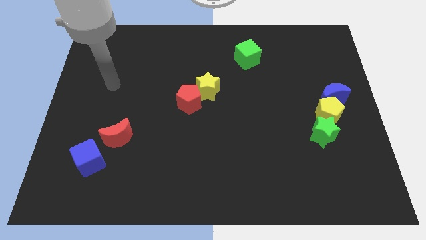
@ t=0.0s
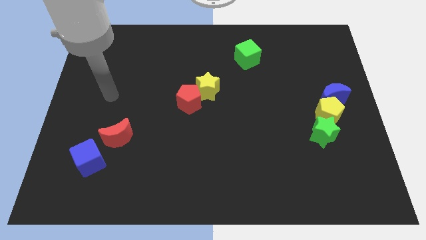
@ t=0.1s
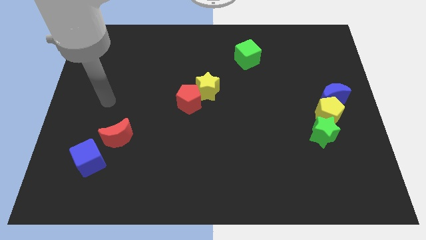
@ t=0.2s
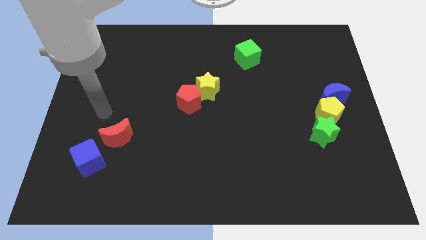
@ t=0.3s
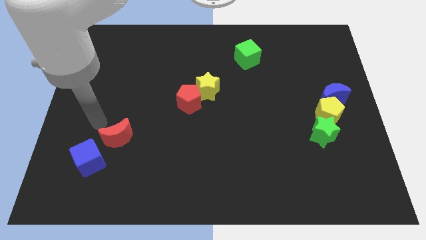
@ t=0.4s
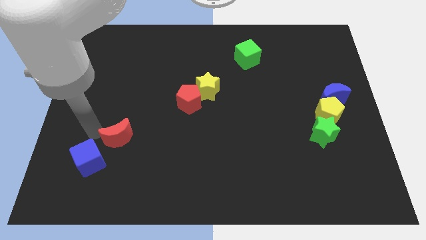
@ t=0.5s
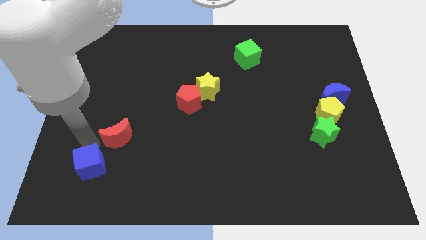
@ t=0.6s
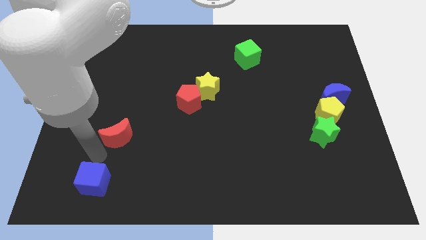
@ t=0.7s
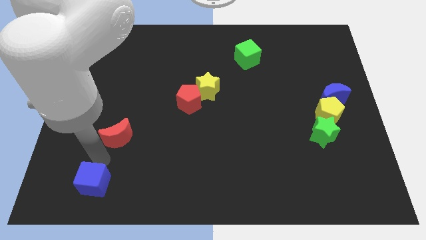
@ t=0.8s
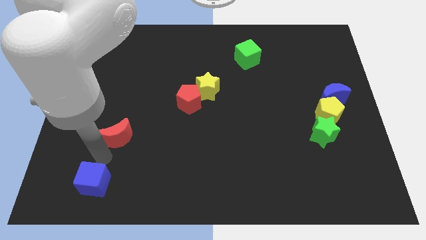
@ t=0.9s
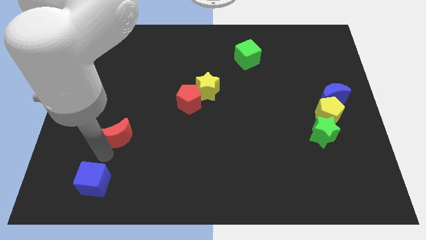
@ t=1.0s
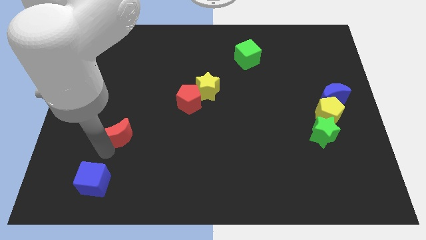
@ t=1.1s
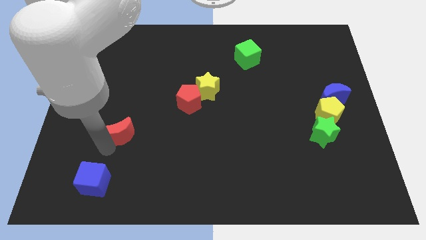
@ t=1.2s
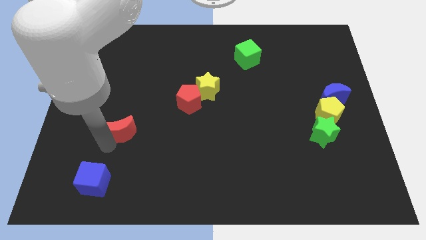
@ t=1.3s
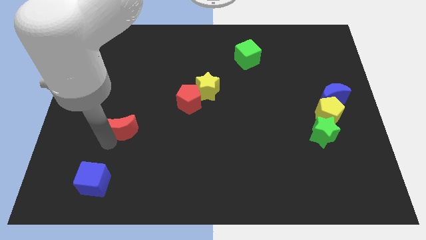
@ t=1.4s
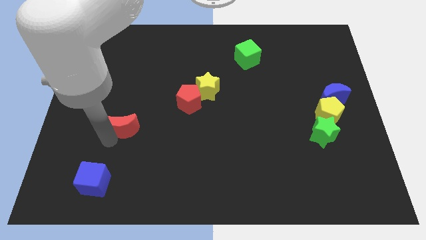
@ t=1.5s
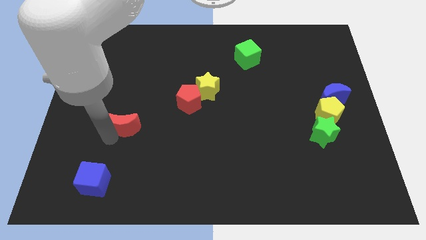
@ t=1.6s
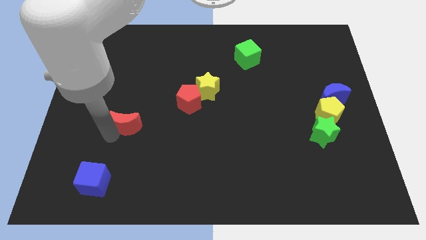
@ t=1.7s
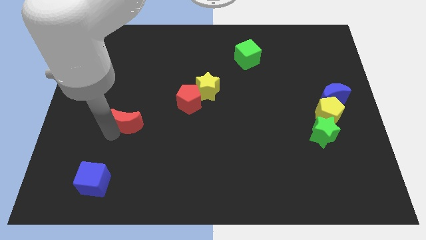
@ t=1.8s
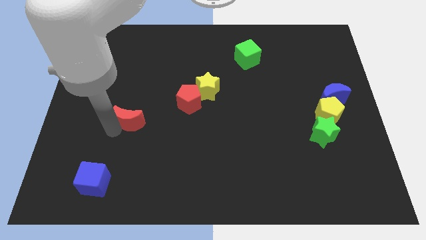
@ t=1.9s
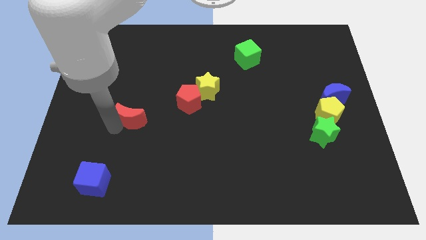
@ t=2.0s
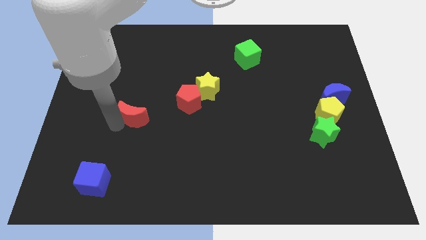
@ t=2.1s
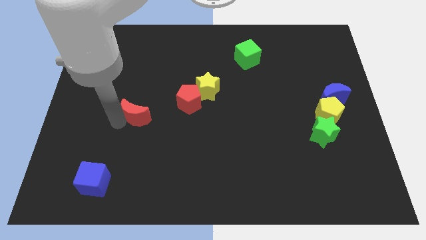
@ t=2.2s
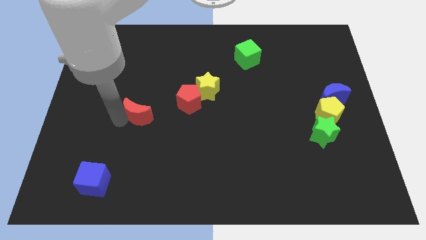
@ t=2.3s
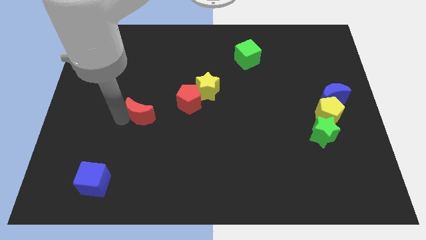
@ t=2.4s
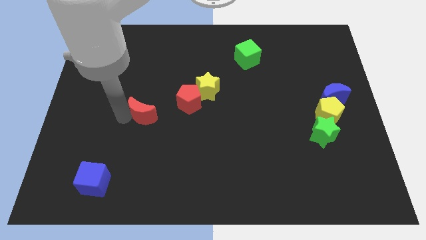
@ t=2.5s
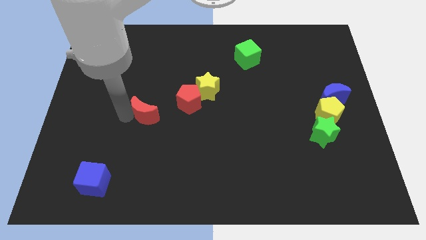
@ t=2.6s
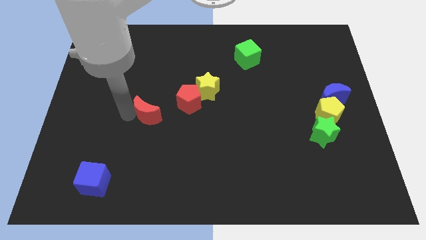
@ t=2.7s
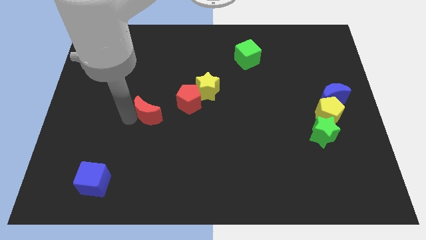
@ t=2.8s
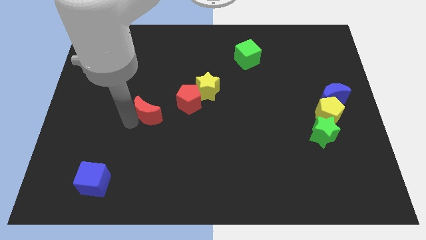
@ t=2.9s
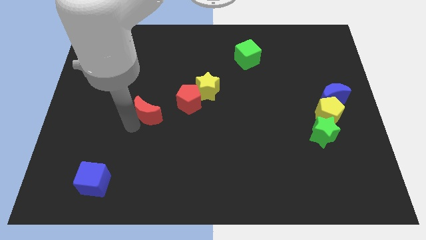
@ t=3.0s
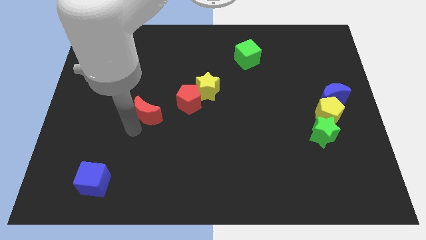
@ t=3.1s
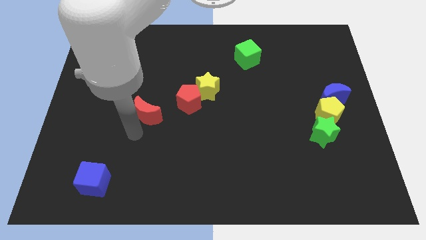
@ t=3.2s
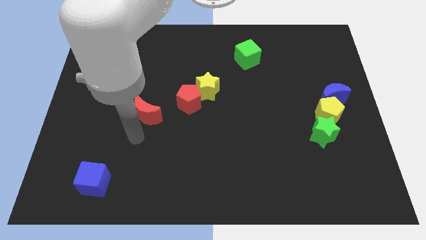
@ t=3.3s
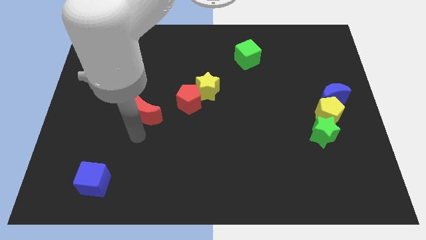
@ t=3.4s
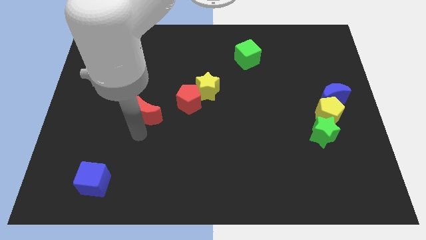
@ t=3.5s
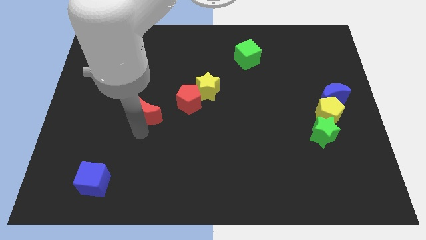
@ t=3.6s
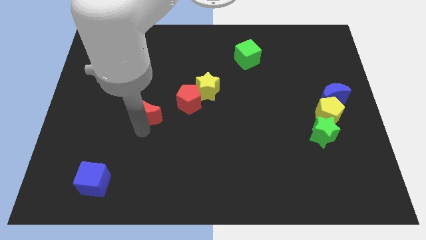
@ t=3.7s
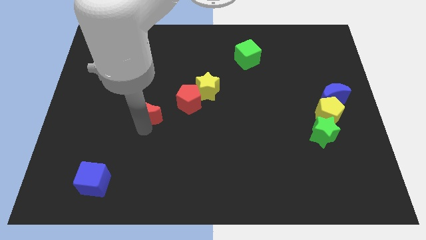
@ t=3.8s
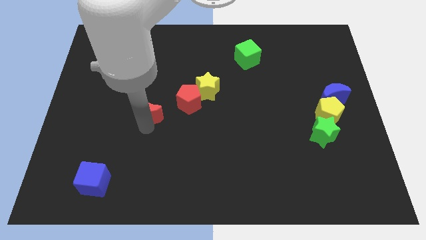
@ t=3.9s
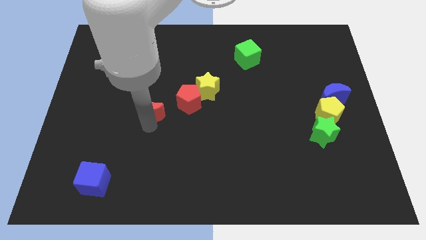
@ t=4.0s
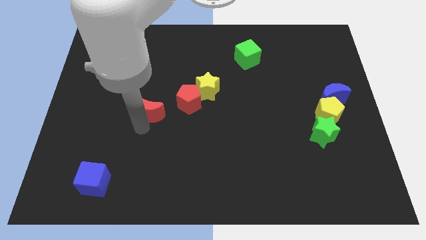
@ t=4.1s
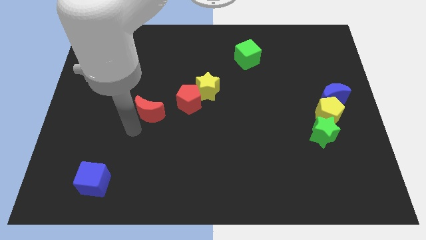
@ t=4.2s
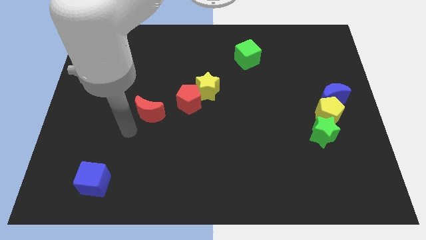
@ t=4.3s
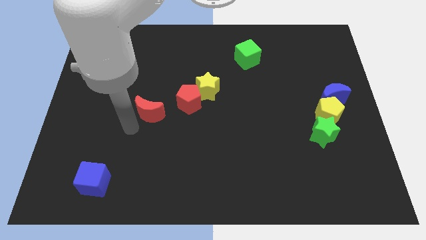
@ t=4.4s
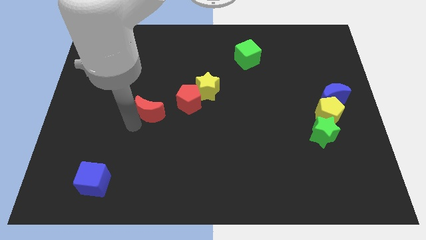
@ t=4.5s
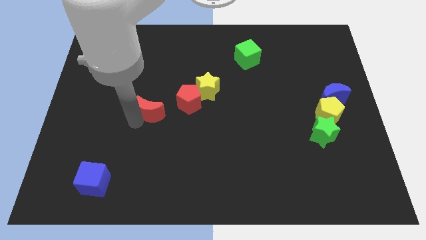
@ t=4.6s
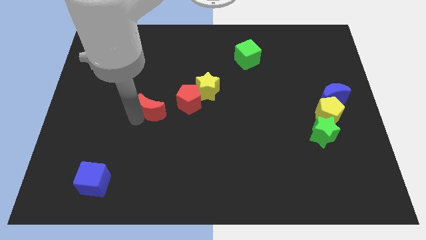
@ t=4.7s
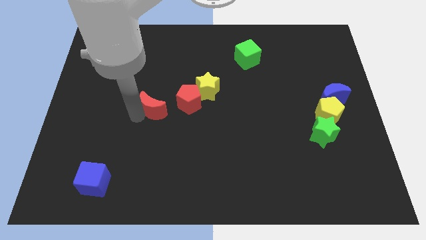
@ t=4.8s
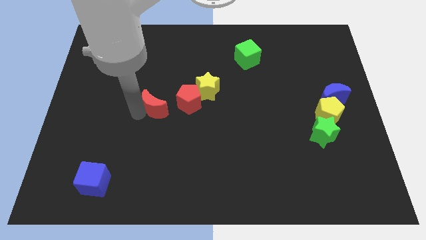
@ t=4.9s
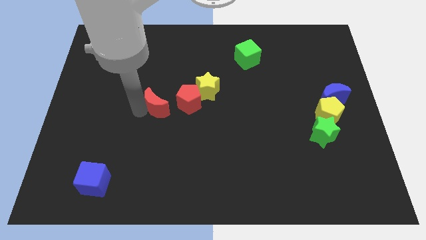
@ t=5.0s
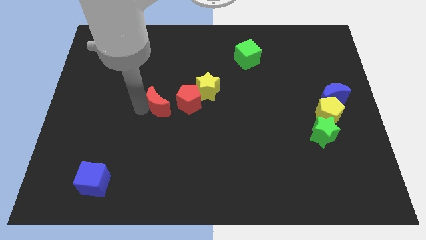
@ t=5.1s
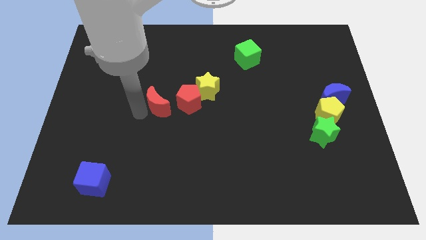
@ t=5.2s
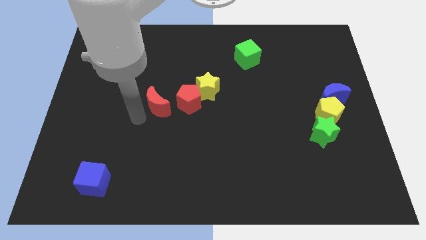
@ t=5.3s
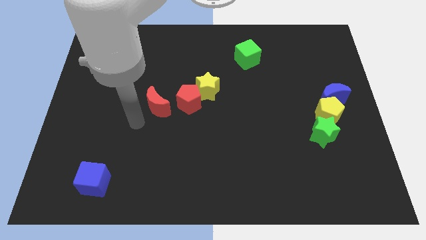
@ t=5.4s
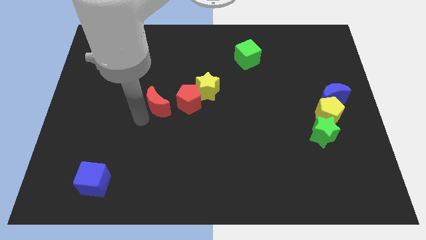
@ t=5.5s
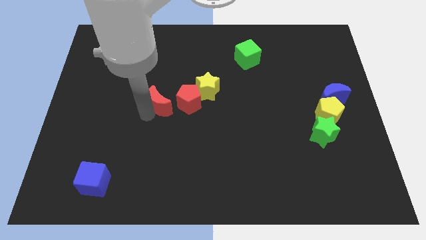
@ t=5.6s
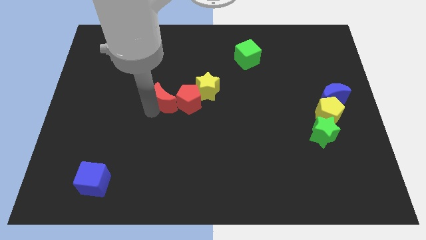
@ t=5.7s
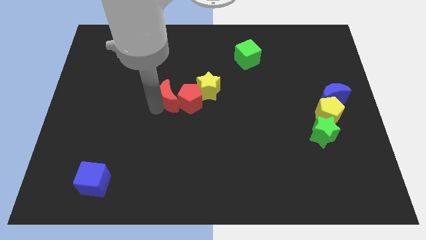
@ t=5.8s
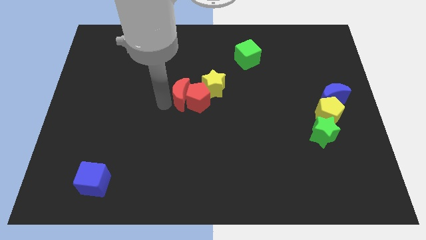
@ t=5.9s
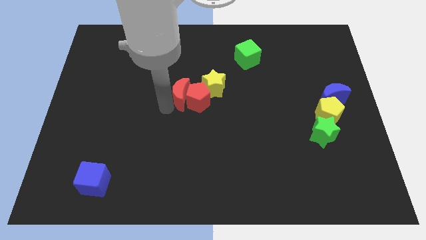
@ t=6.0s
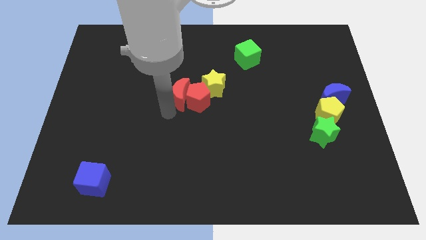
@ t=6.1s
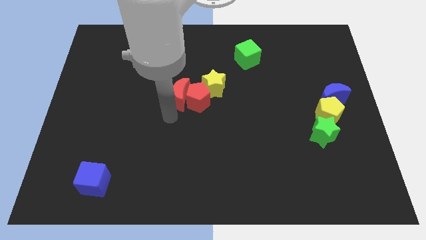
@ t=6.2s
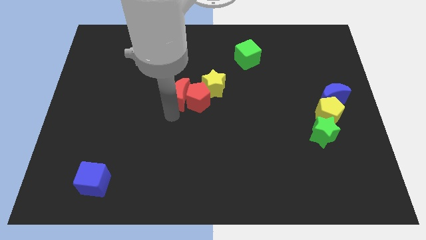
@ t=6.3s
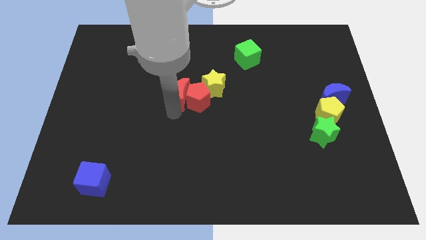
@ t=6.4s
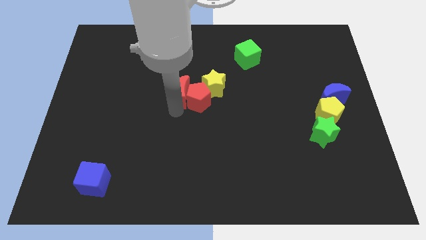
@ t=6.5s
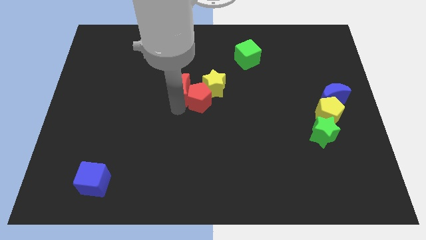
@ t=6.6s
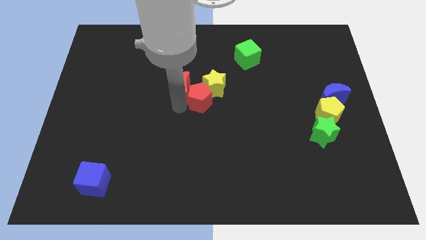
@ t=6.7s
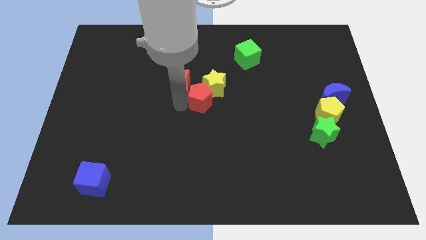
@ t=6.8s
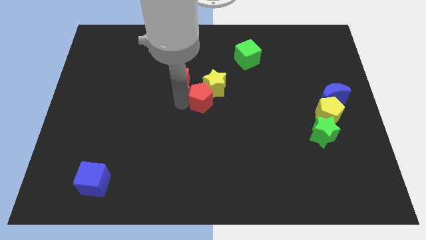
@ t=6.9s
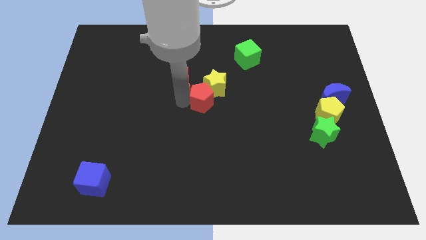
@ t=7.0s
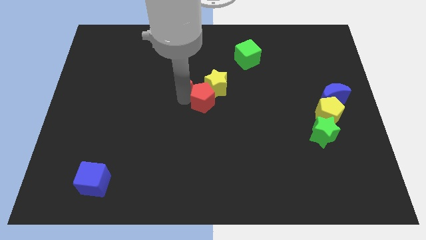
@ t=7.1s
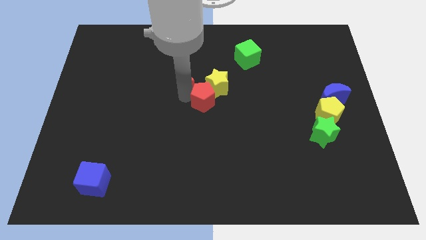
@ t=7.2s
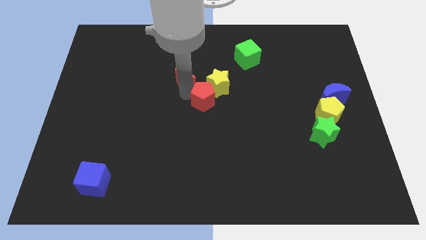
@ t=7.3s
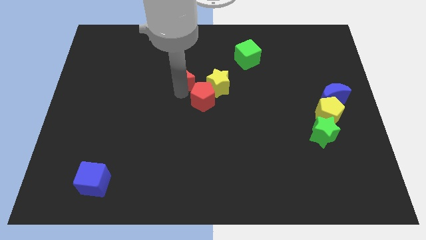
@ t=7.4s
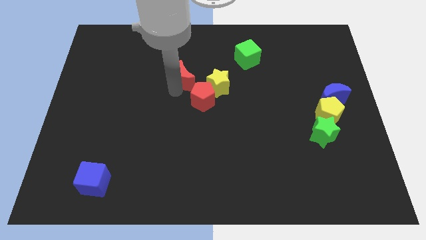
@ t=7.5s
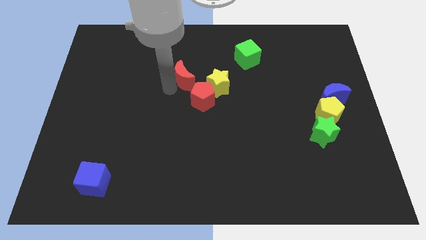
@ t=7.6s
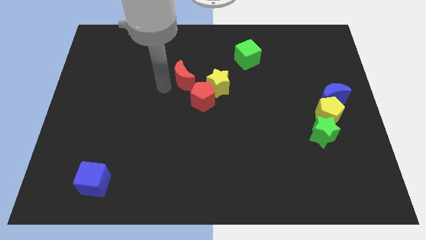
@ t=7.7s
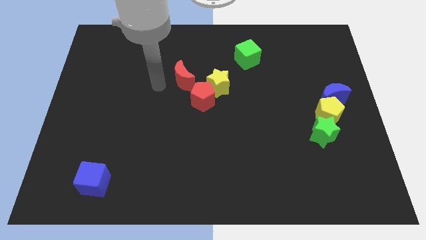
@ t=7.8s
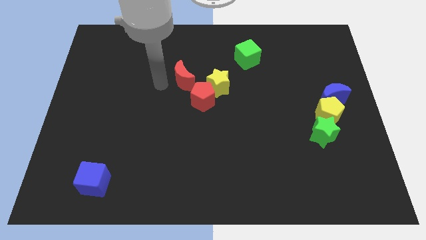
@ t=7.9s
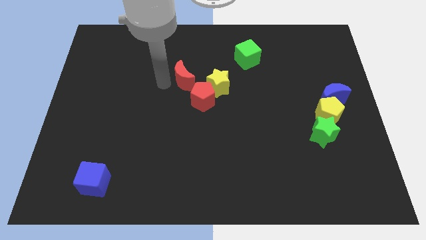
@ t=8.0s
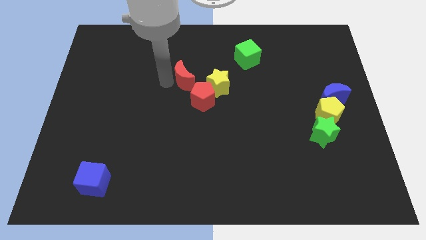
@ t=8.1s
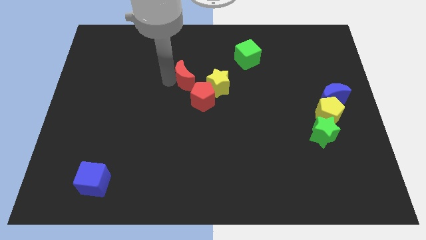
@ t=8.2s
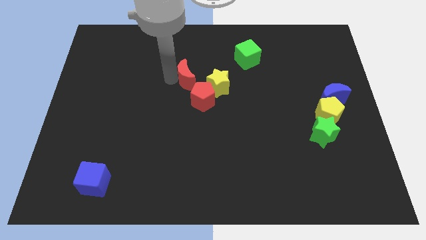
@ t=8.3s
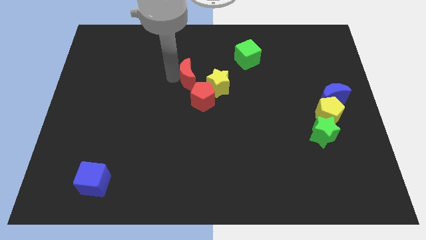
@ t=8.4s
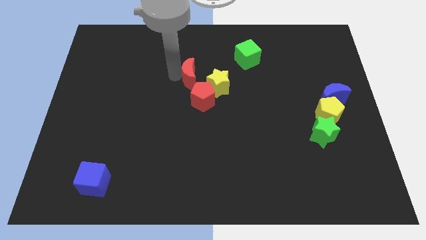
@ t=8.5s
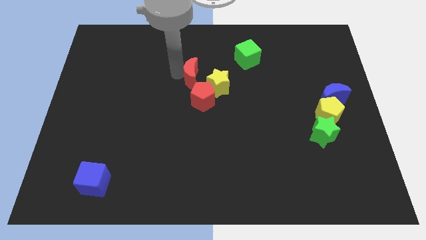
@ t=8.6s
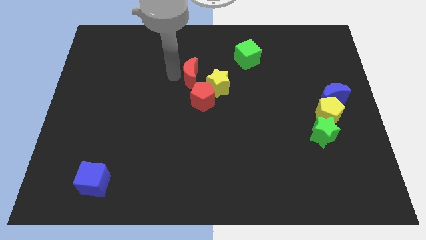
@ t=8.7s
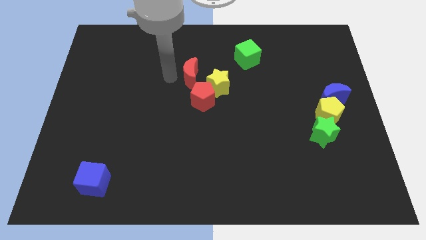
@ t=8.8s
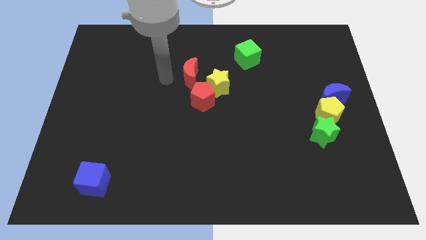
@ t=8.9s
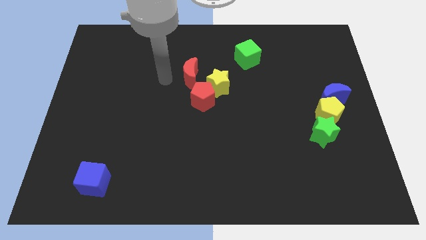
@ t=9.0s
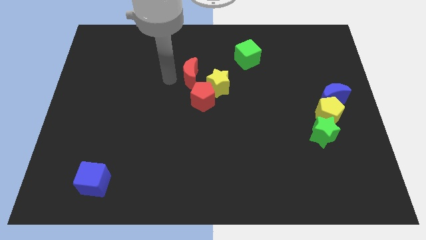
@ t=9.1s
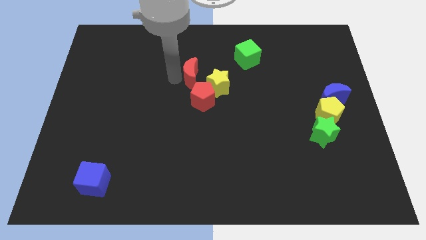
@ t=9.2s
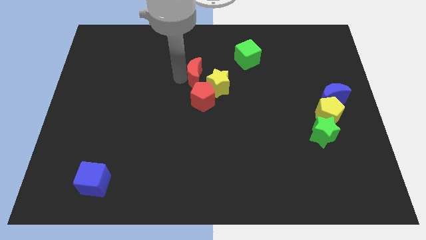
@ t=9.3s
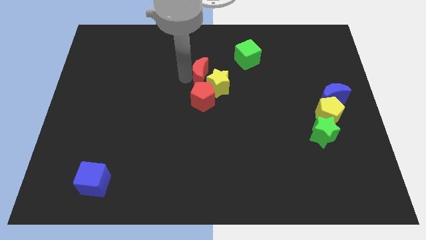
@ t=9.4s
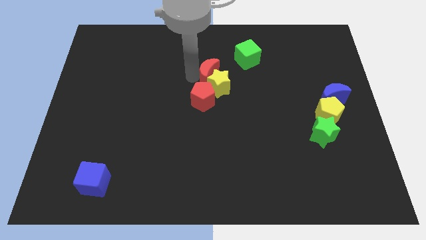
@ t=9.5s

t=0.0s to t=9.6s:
put the red moon diagonally down and to the left of the green cube
